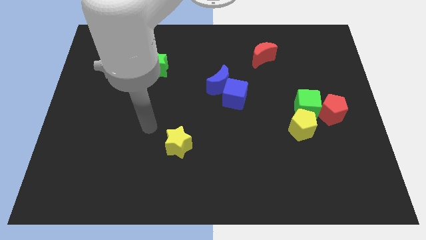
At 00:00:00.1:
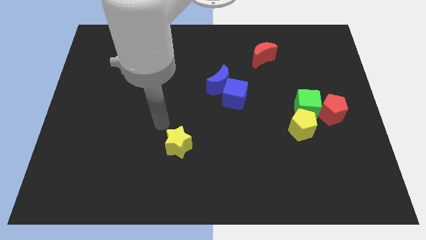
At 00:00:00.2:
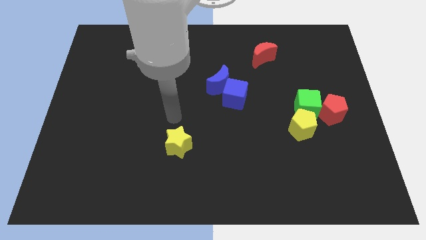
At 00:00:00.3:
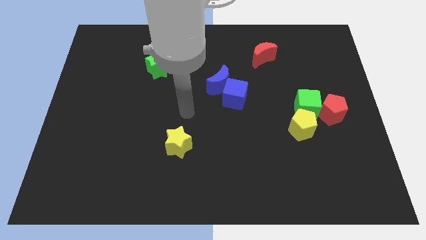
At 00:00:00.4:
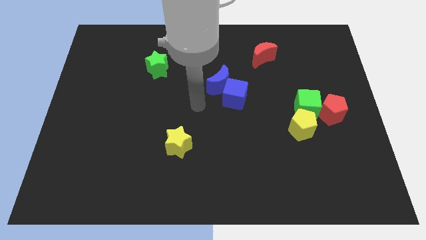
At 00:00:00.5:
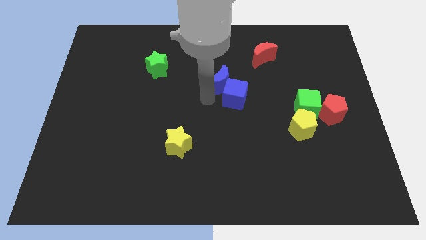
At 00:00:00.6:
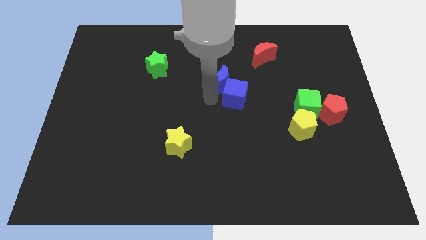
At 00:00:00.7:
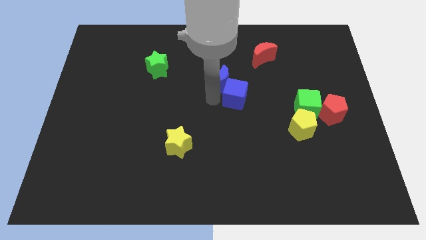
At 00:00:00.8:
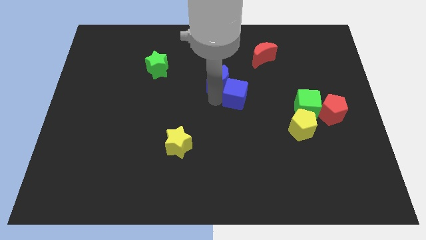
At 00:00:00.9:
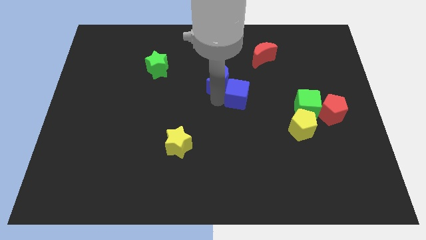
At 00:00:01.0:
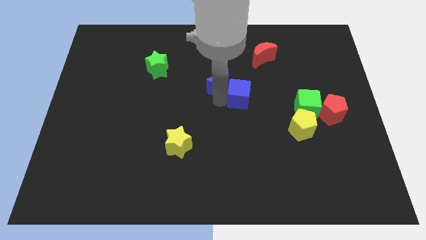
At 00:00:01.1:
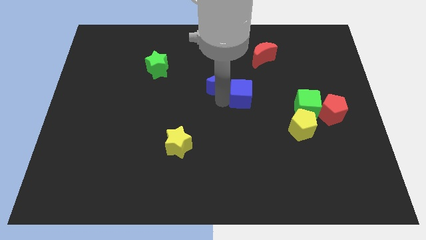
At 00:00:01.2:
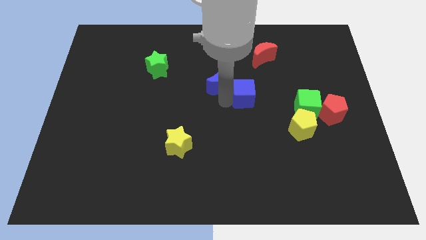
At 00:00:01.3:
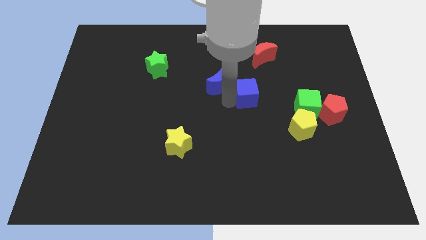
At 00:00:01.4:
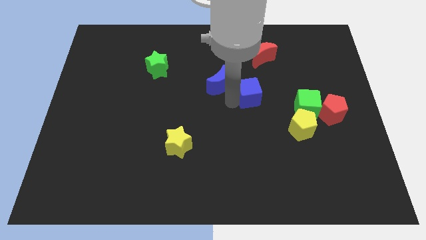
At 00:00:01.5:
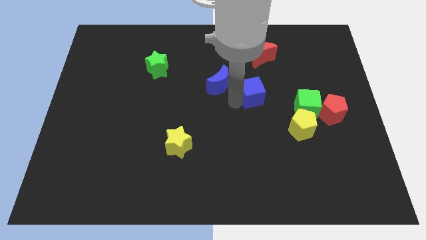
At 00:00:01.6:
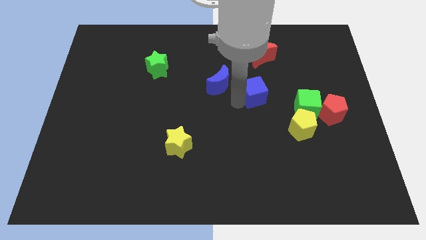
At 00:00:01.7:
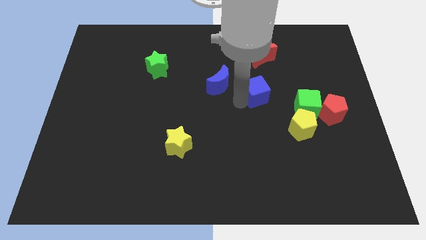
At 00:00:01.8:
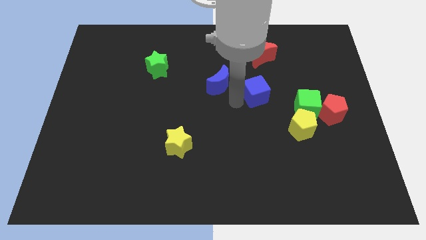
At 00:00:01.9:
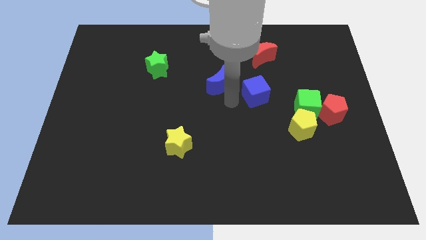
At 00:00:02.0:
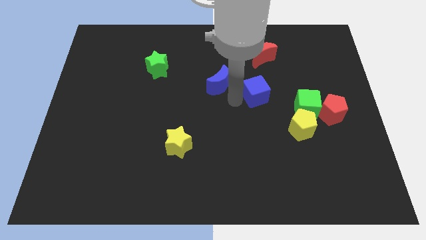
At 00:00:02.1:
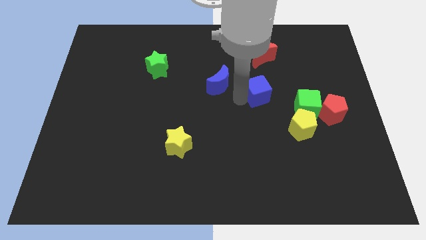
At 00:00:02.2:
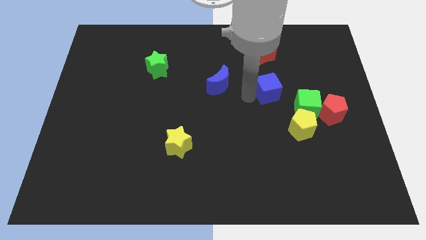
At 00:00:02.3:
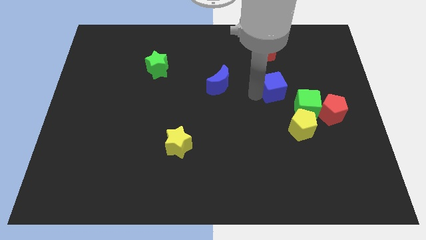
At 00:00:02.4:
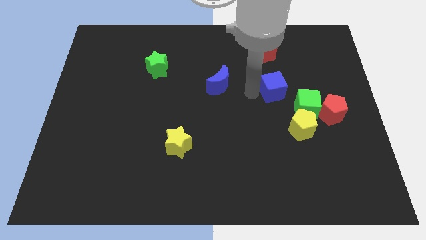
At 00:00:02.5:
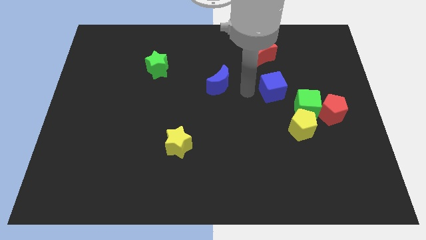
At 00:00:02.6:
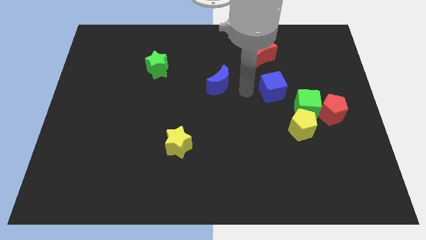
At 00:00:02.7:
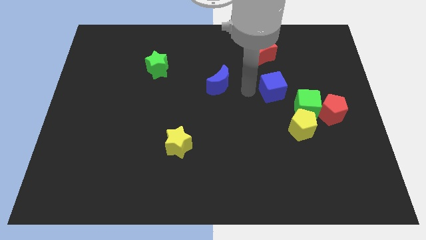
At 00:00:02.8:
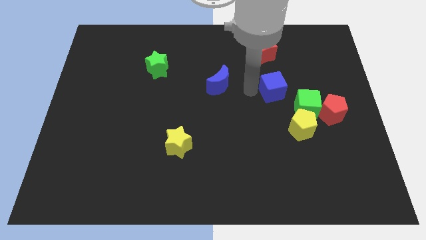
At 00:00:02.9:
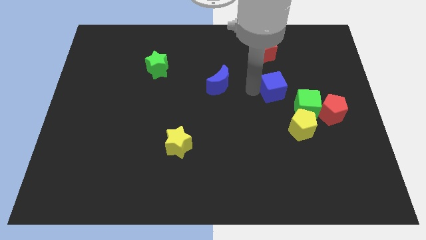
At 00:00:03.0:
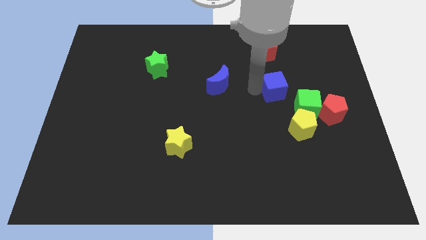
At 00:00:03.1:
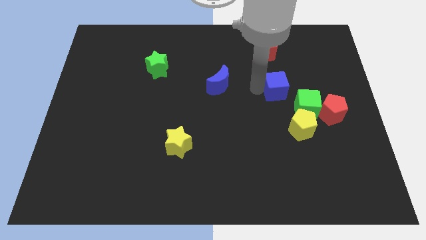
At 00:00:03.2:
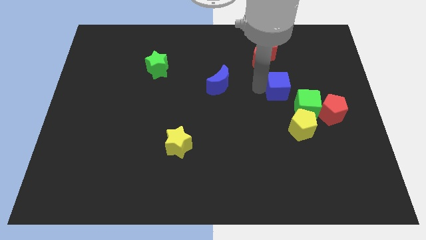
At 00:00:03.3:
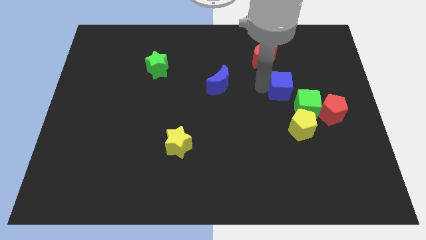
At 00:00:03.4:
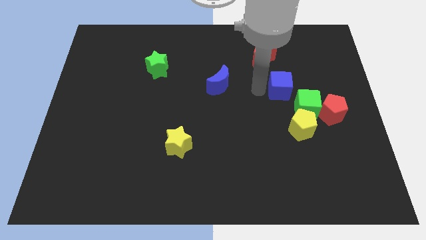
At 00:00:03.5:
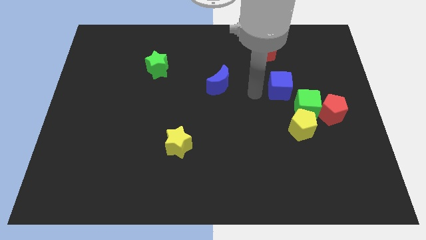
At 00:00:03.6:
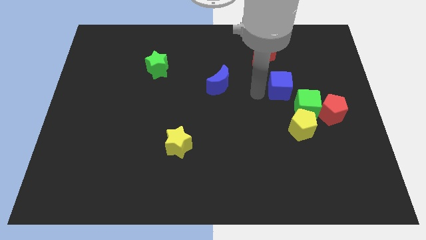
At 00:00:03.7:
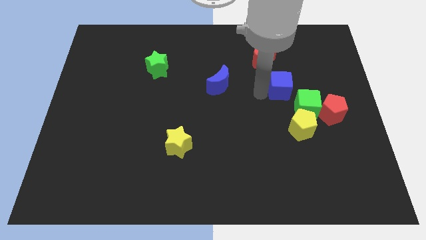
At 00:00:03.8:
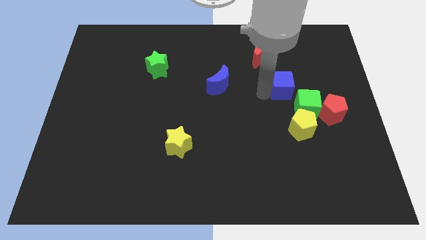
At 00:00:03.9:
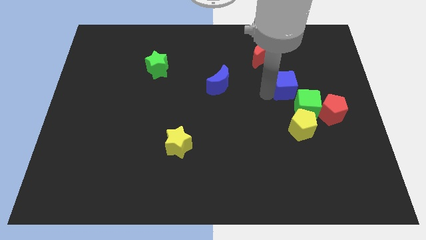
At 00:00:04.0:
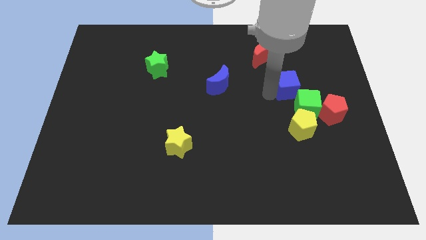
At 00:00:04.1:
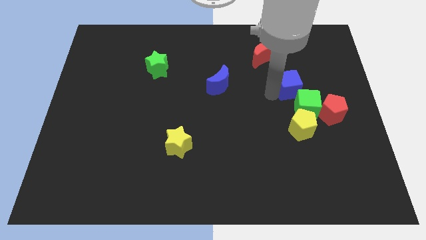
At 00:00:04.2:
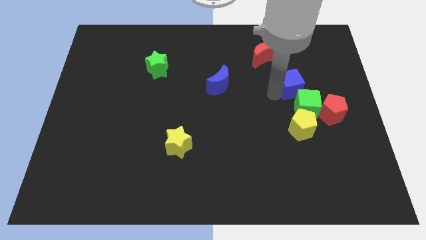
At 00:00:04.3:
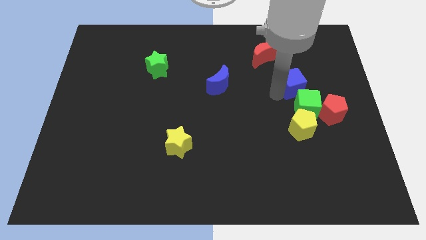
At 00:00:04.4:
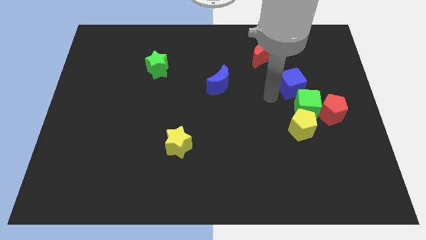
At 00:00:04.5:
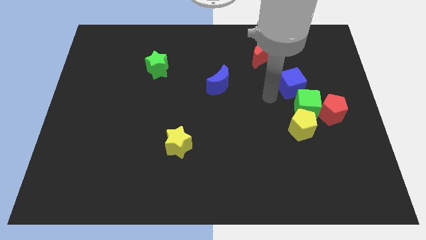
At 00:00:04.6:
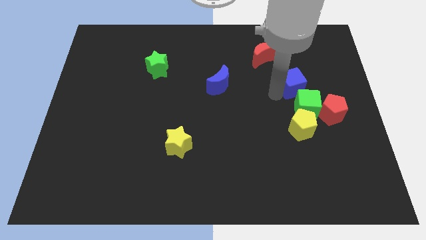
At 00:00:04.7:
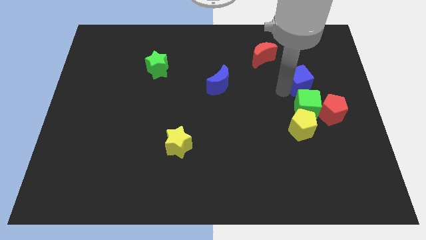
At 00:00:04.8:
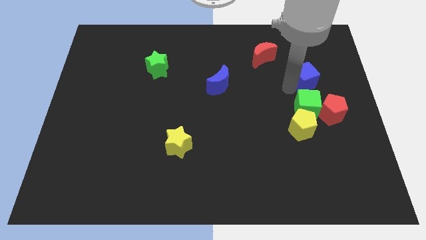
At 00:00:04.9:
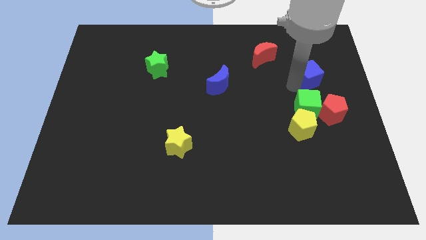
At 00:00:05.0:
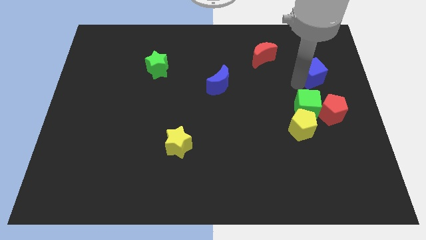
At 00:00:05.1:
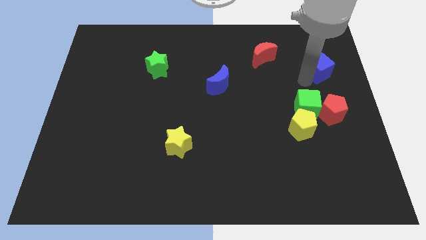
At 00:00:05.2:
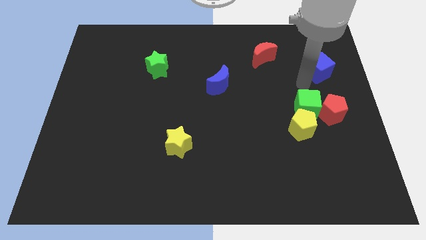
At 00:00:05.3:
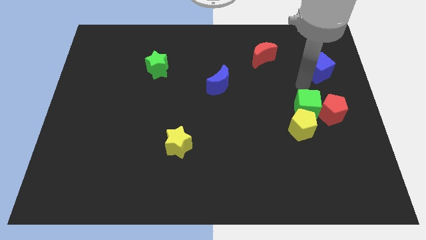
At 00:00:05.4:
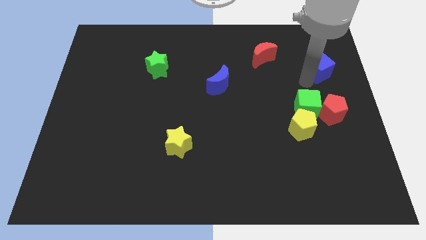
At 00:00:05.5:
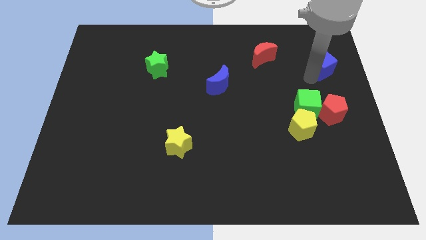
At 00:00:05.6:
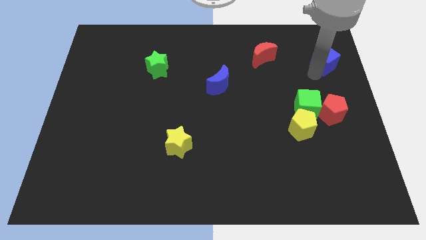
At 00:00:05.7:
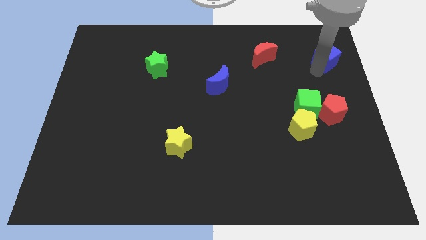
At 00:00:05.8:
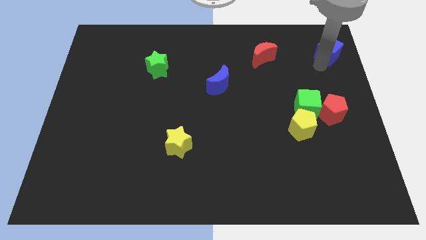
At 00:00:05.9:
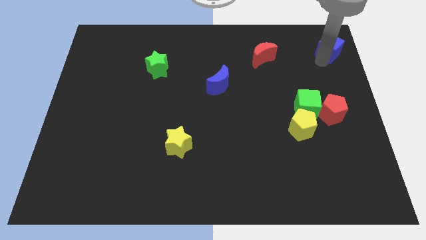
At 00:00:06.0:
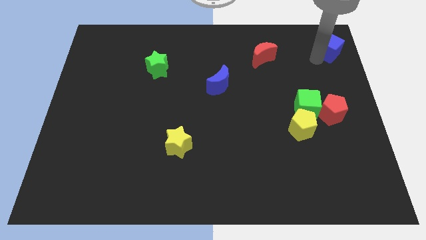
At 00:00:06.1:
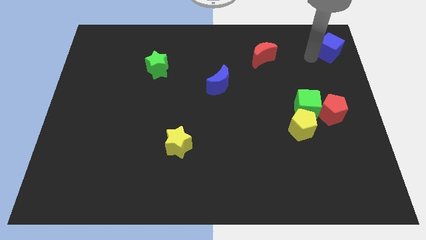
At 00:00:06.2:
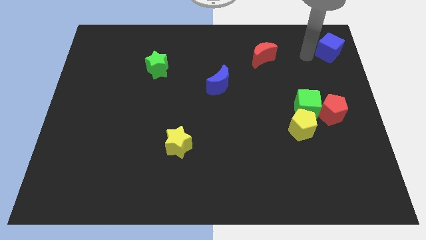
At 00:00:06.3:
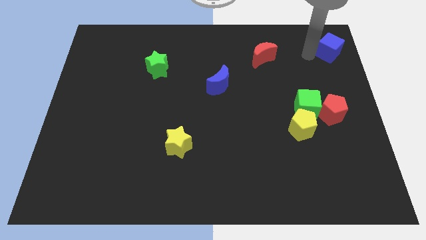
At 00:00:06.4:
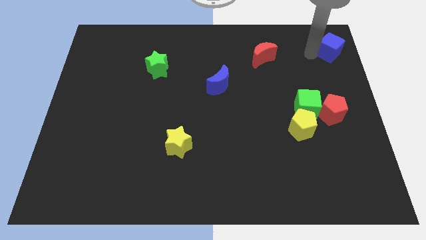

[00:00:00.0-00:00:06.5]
move the blue cube to the upper right corner

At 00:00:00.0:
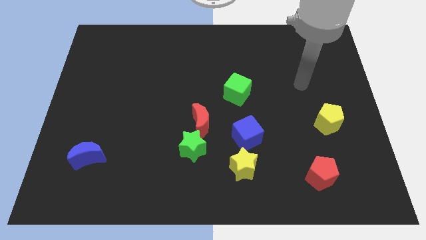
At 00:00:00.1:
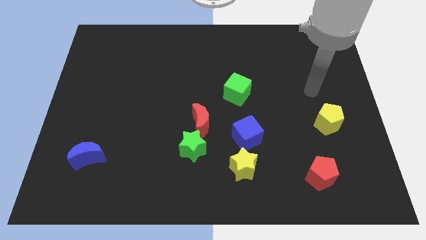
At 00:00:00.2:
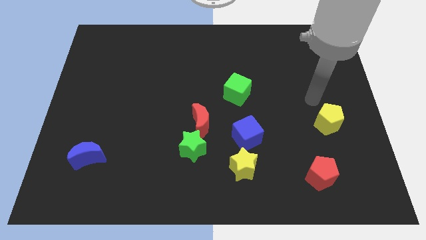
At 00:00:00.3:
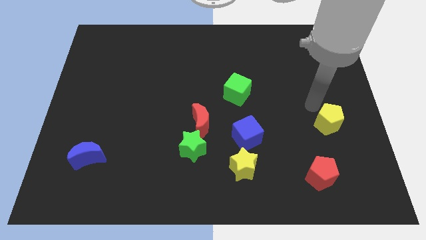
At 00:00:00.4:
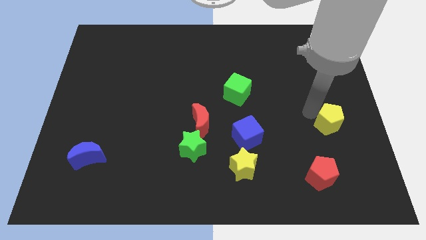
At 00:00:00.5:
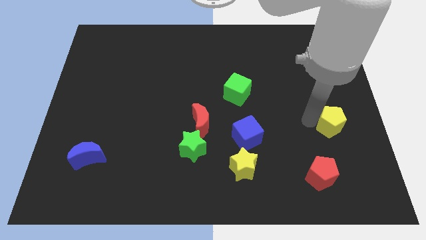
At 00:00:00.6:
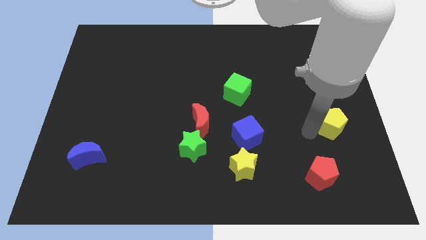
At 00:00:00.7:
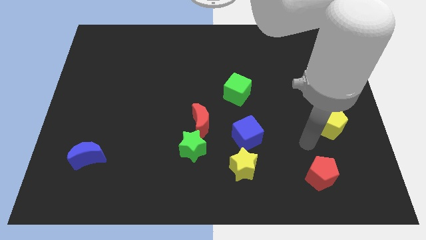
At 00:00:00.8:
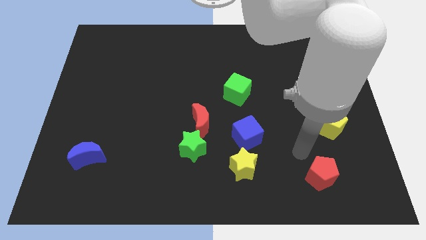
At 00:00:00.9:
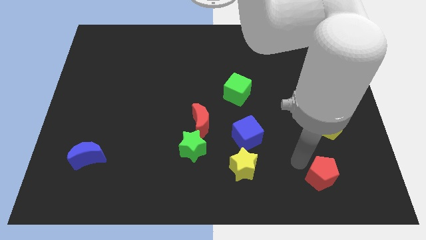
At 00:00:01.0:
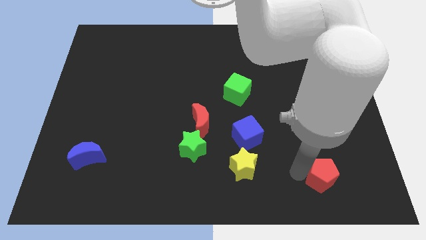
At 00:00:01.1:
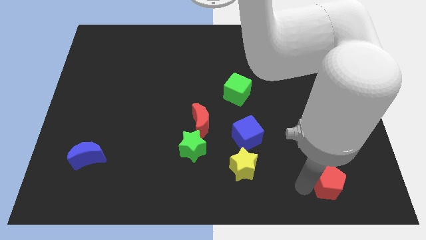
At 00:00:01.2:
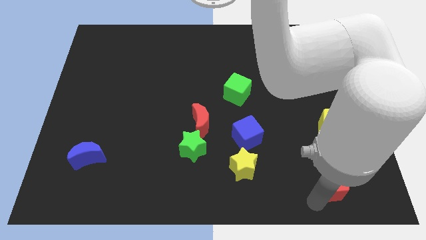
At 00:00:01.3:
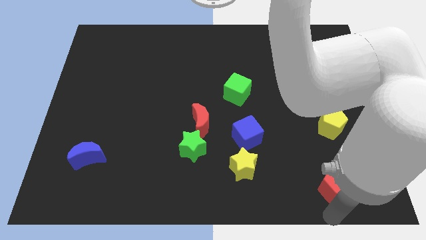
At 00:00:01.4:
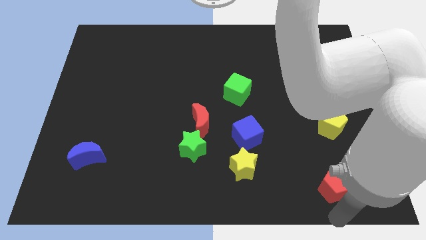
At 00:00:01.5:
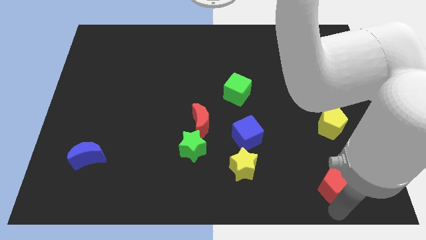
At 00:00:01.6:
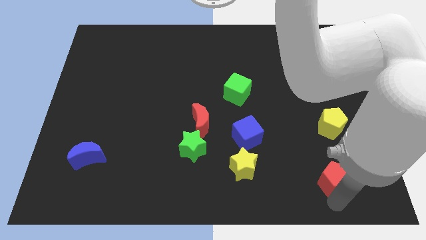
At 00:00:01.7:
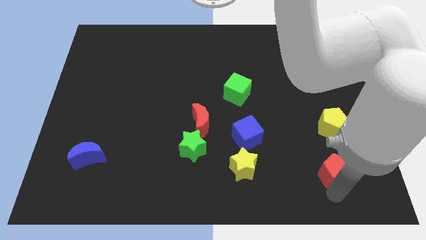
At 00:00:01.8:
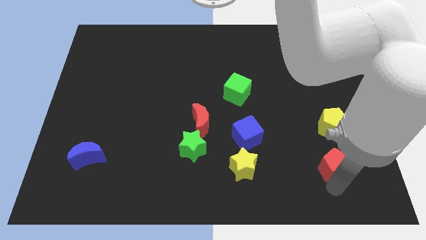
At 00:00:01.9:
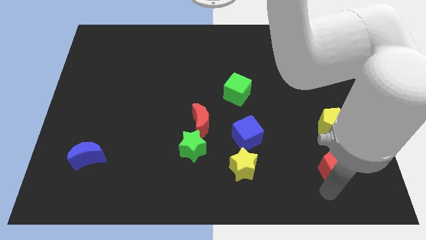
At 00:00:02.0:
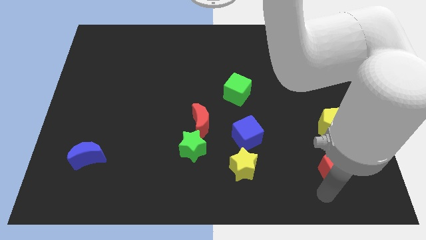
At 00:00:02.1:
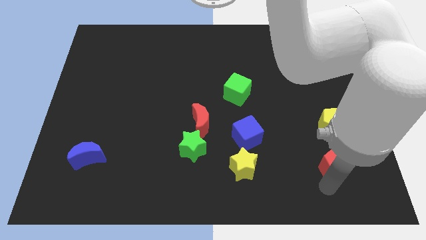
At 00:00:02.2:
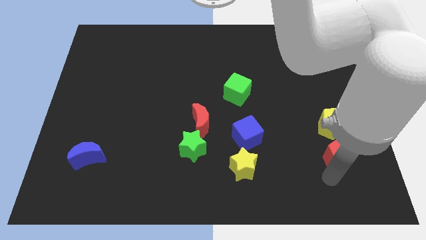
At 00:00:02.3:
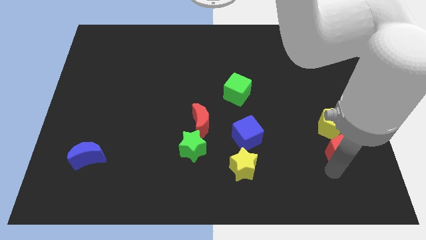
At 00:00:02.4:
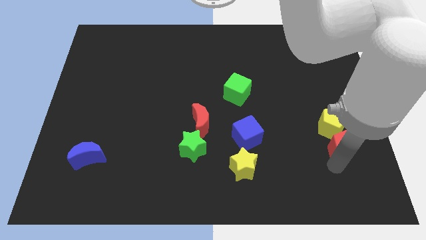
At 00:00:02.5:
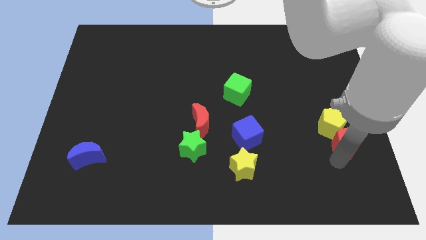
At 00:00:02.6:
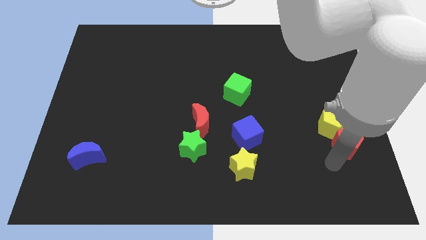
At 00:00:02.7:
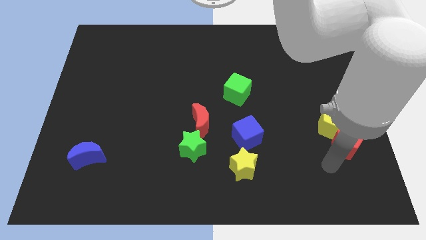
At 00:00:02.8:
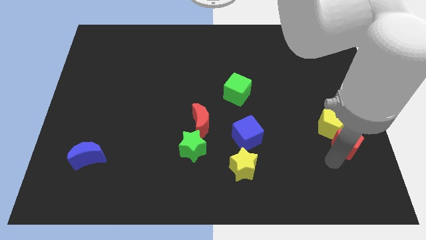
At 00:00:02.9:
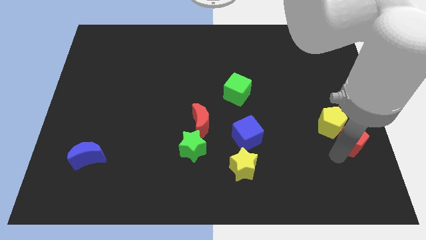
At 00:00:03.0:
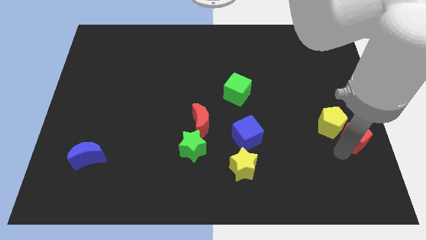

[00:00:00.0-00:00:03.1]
slide the red pentagon to the right side of the board
